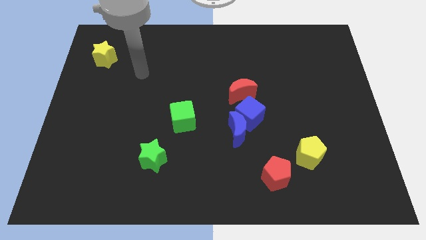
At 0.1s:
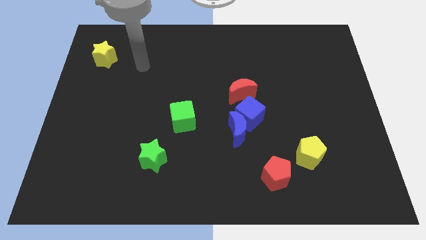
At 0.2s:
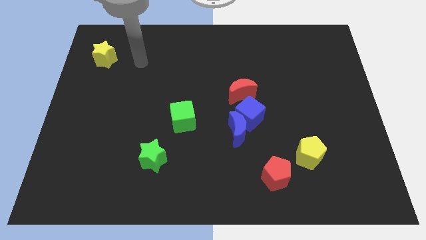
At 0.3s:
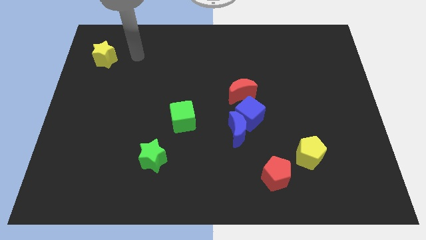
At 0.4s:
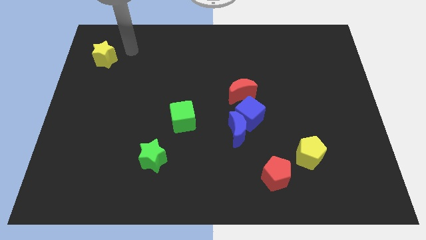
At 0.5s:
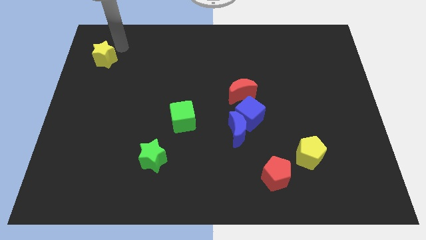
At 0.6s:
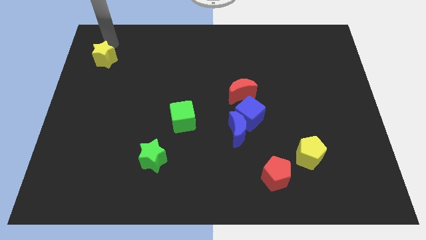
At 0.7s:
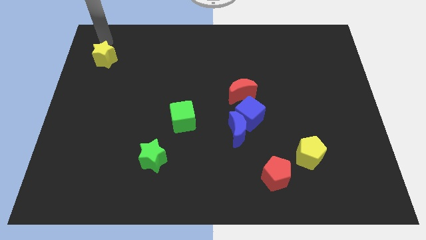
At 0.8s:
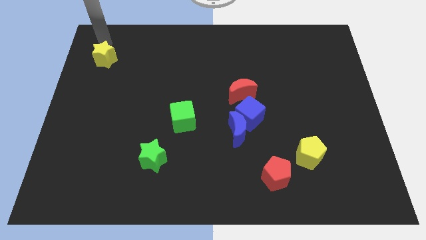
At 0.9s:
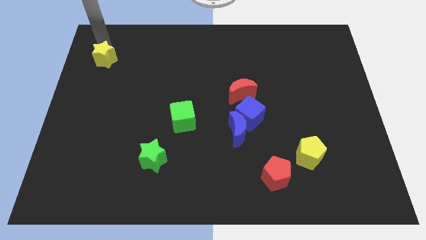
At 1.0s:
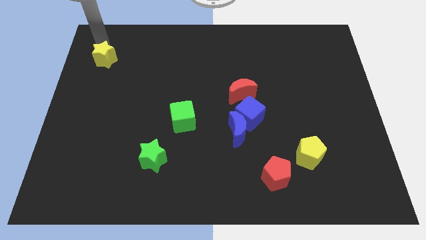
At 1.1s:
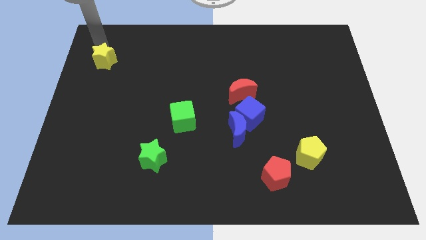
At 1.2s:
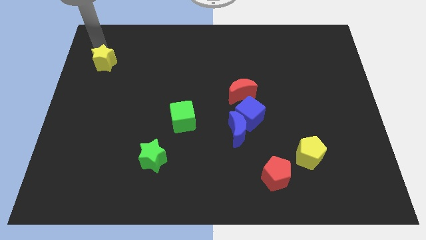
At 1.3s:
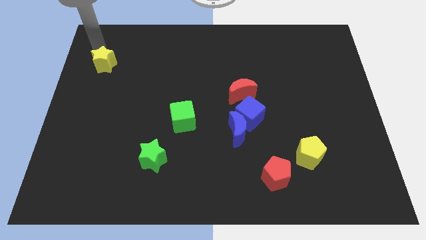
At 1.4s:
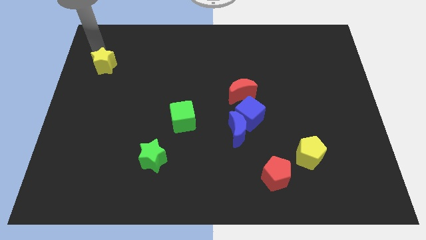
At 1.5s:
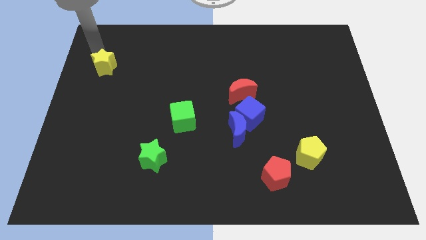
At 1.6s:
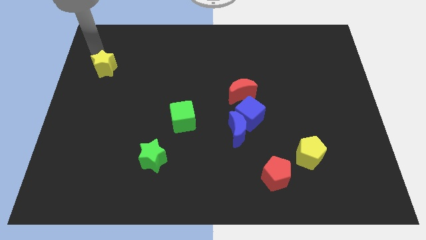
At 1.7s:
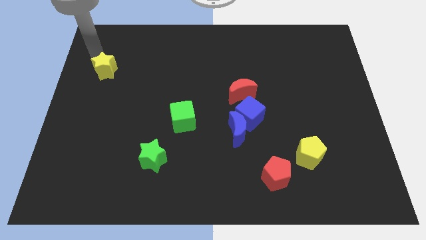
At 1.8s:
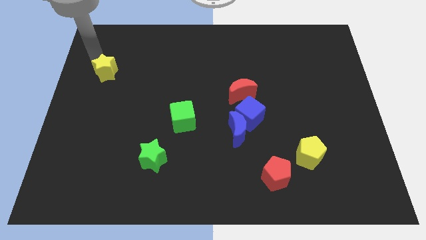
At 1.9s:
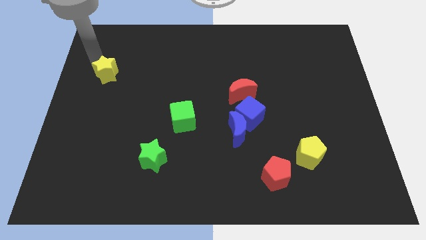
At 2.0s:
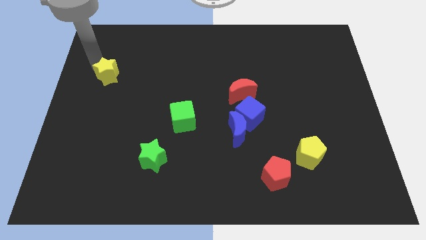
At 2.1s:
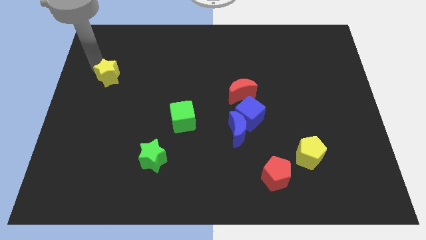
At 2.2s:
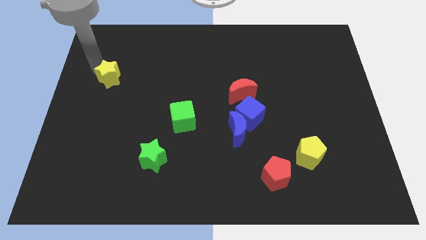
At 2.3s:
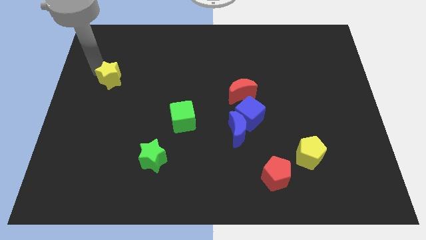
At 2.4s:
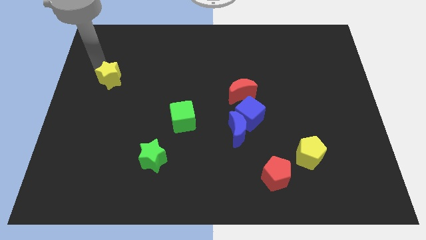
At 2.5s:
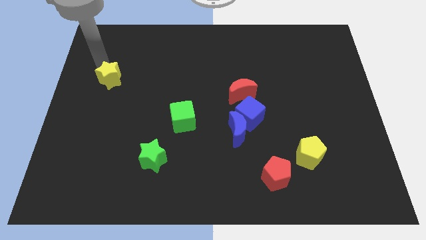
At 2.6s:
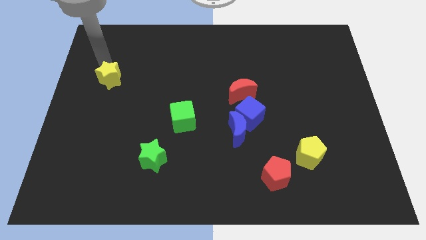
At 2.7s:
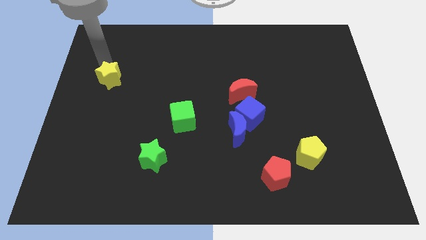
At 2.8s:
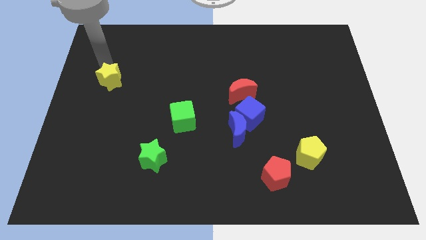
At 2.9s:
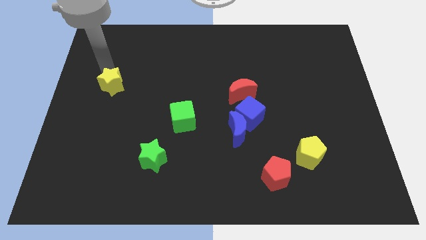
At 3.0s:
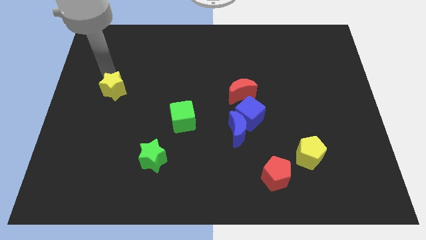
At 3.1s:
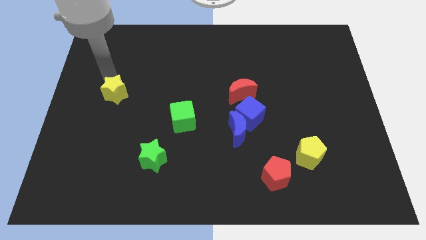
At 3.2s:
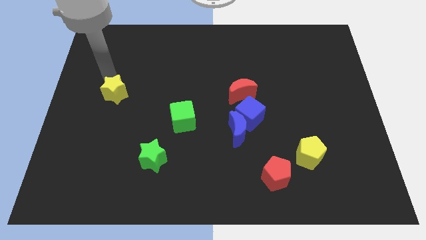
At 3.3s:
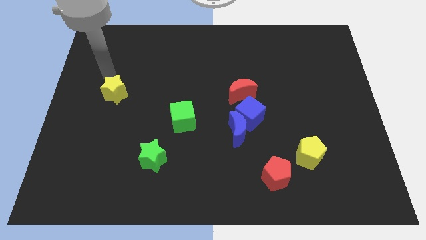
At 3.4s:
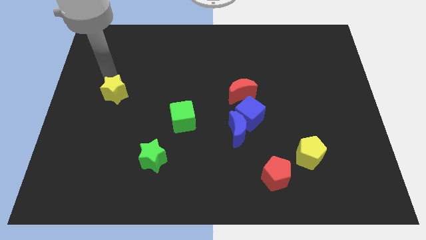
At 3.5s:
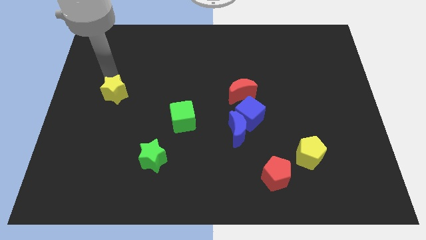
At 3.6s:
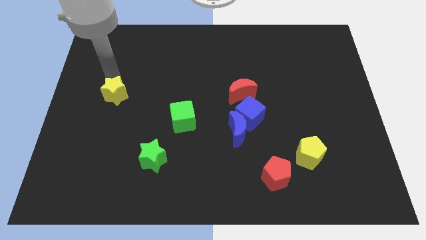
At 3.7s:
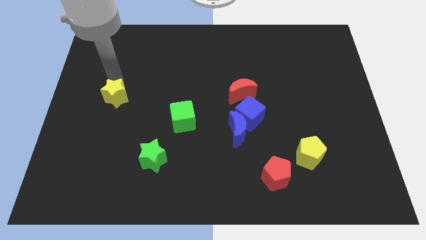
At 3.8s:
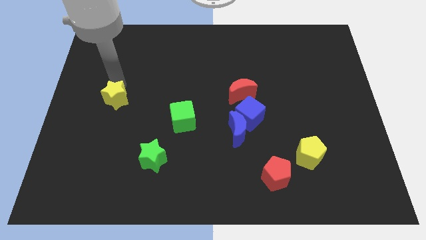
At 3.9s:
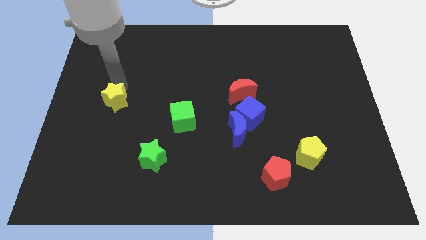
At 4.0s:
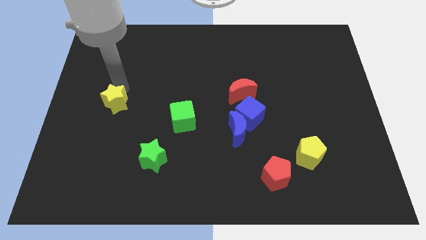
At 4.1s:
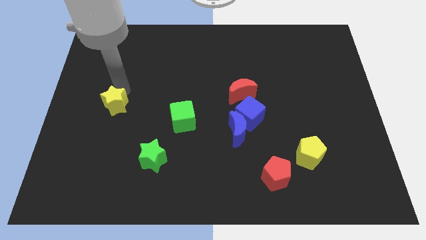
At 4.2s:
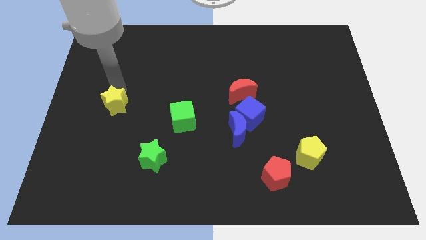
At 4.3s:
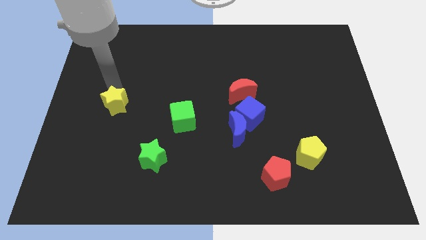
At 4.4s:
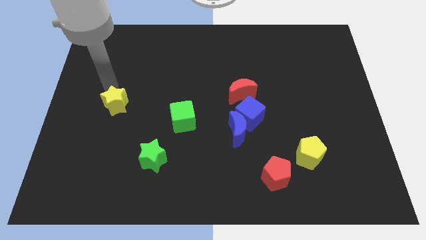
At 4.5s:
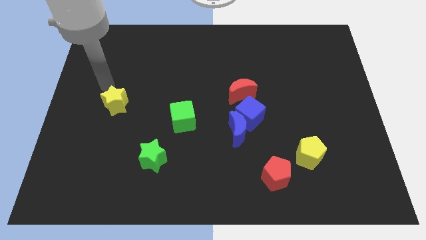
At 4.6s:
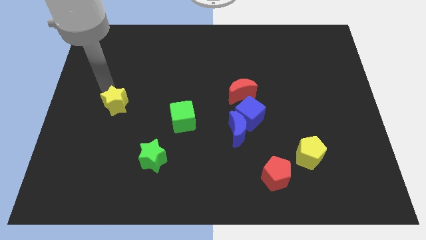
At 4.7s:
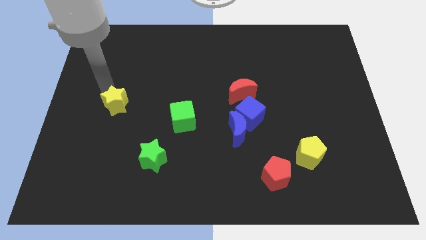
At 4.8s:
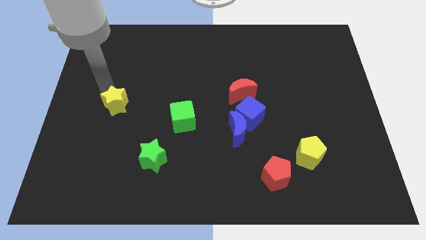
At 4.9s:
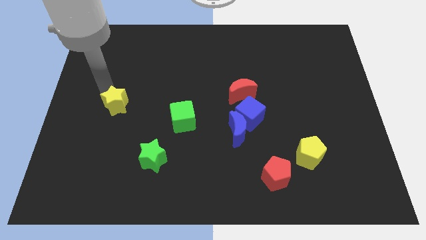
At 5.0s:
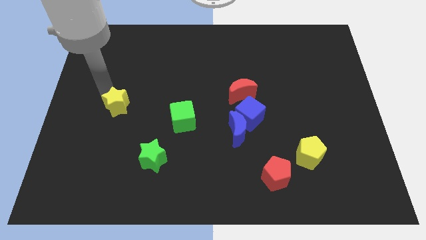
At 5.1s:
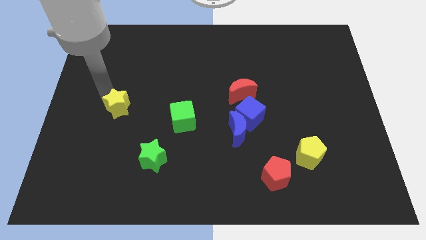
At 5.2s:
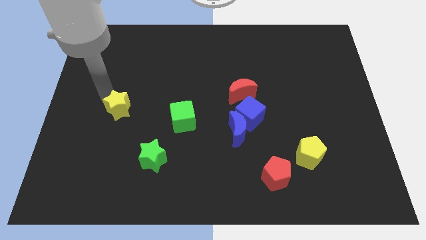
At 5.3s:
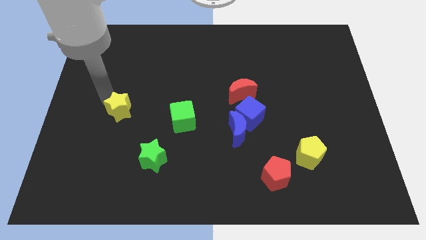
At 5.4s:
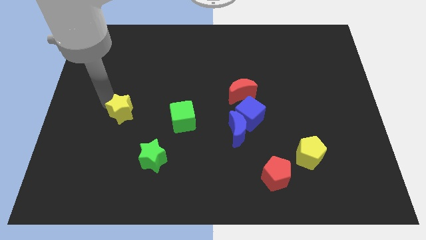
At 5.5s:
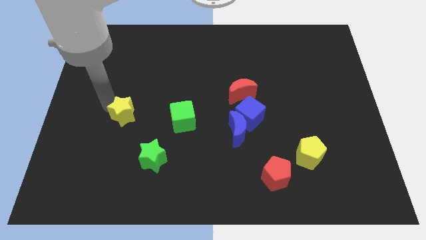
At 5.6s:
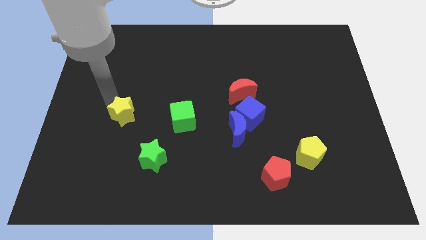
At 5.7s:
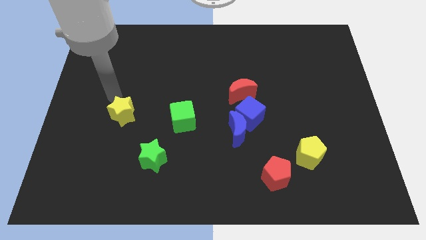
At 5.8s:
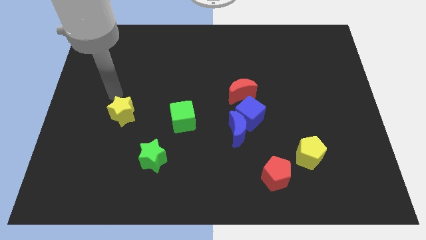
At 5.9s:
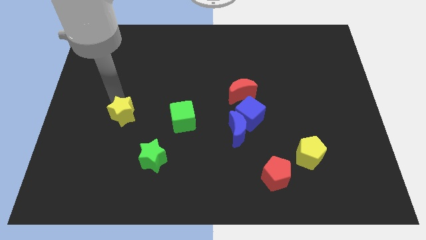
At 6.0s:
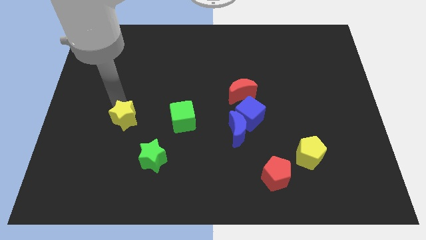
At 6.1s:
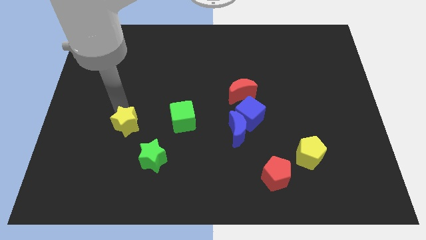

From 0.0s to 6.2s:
push the yellow star to the top left of the green star
